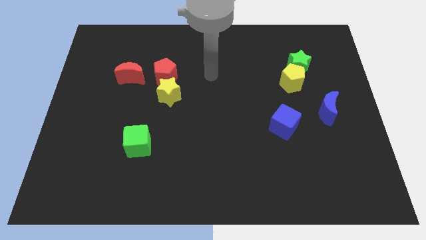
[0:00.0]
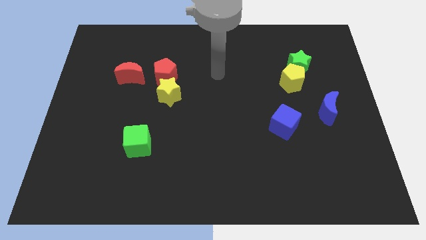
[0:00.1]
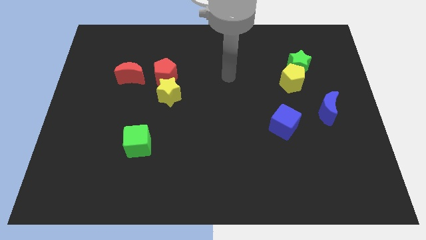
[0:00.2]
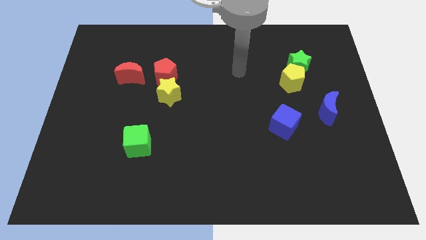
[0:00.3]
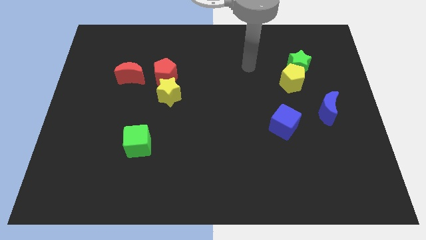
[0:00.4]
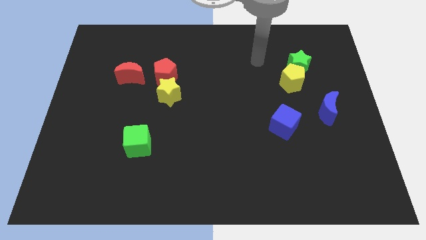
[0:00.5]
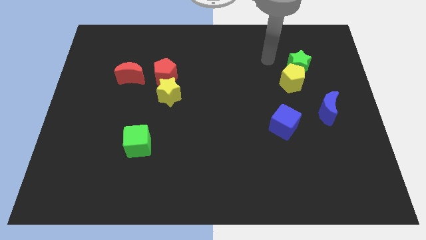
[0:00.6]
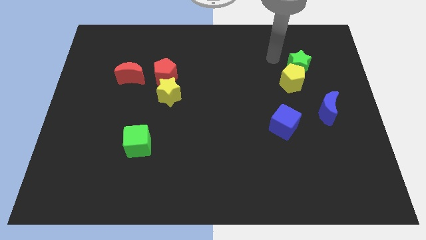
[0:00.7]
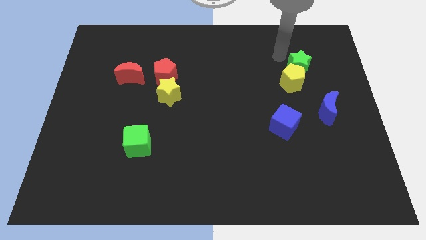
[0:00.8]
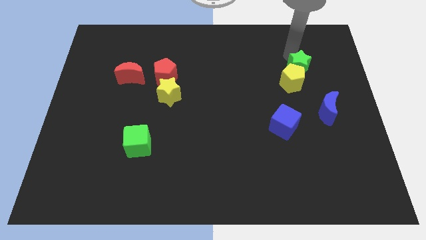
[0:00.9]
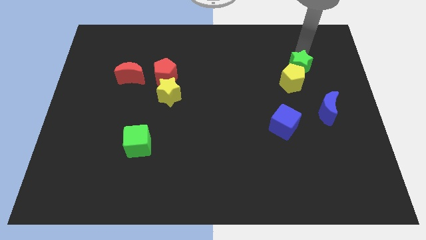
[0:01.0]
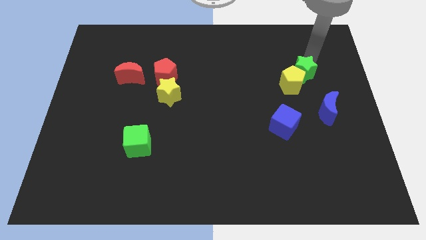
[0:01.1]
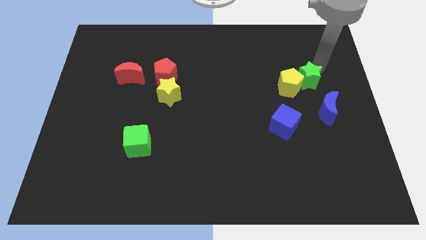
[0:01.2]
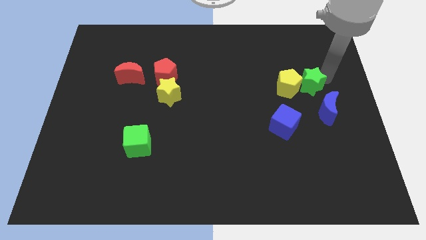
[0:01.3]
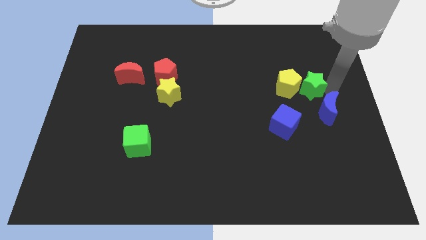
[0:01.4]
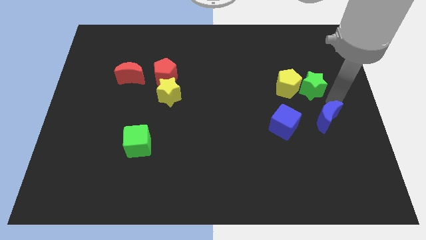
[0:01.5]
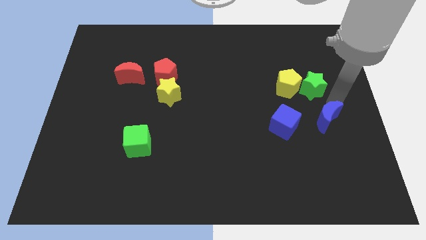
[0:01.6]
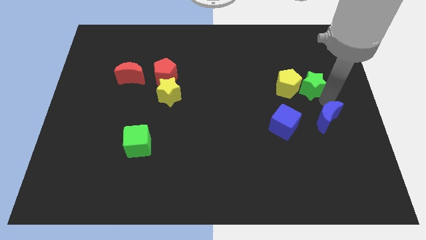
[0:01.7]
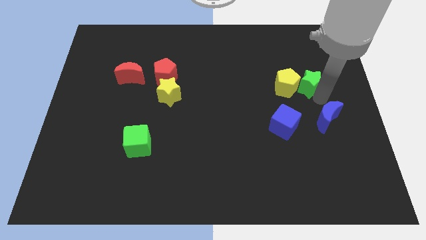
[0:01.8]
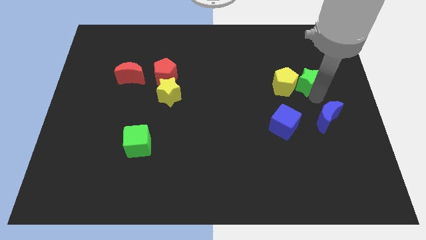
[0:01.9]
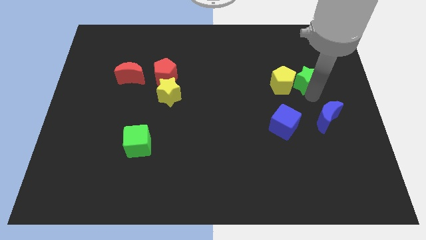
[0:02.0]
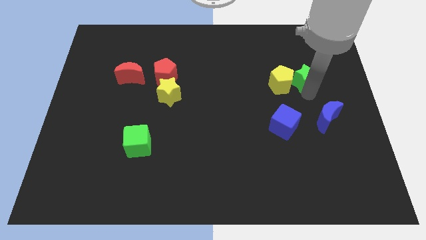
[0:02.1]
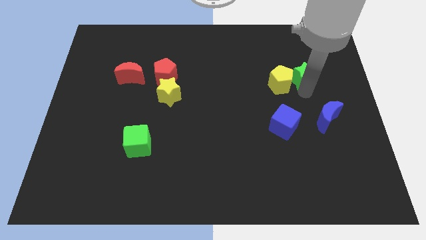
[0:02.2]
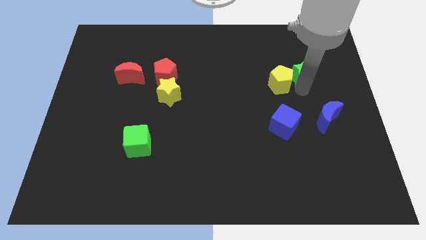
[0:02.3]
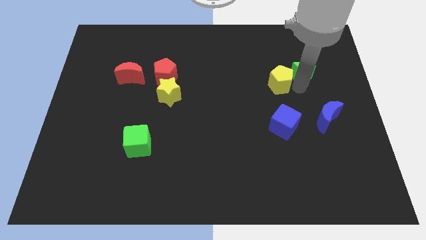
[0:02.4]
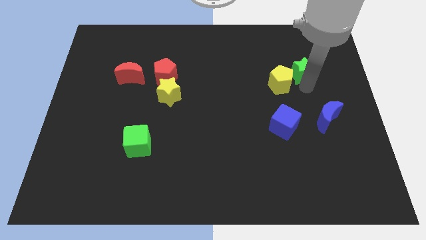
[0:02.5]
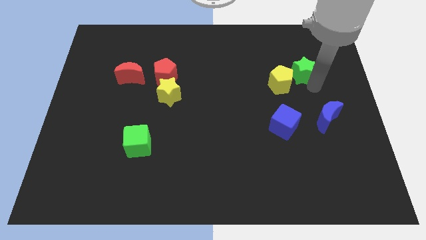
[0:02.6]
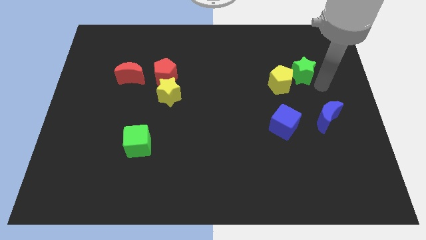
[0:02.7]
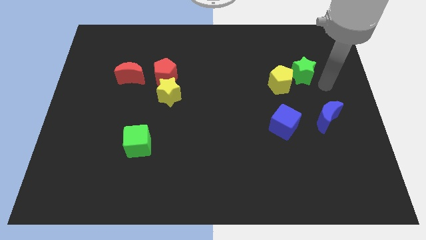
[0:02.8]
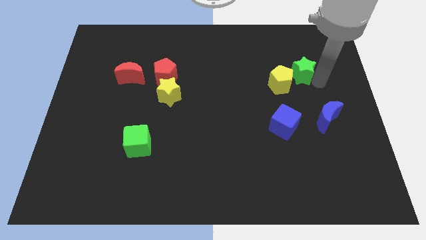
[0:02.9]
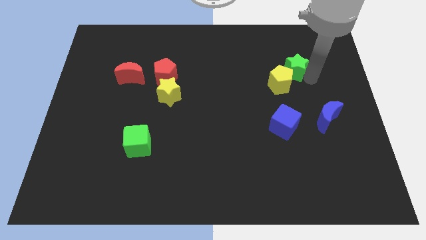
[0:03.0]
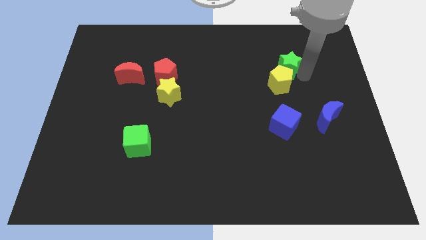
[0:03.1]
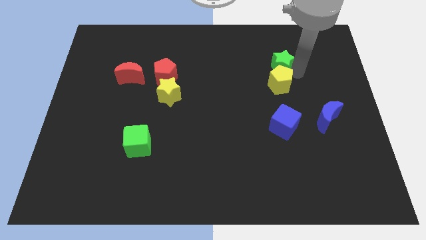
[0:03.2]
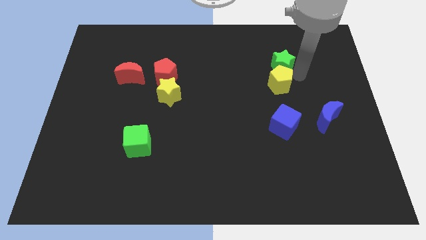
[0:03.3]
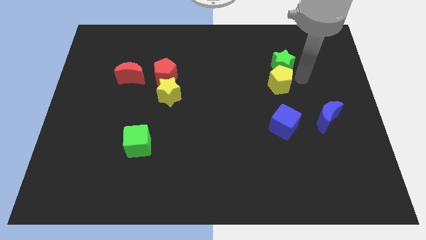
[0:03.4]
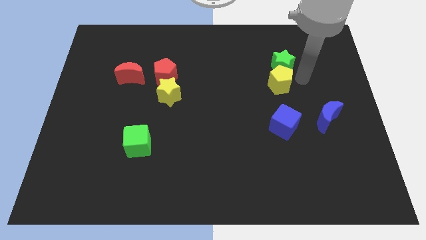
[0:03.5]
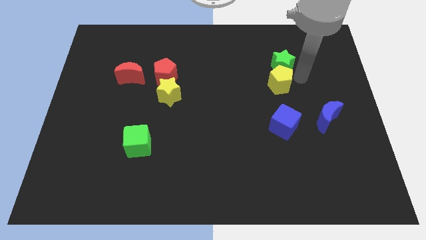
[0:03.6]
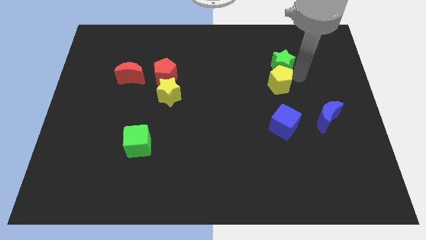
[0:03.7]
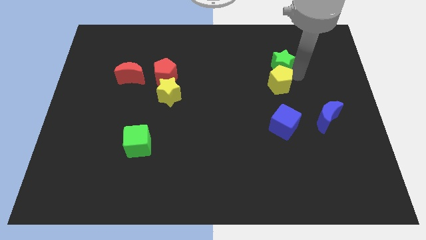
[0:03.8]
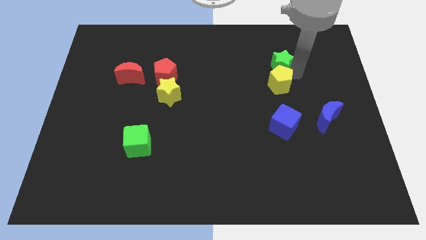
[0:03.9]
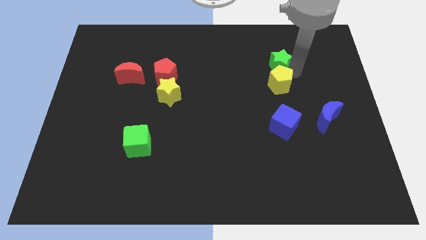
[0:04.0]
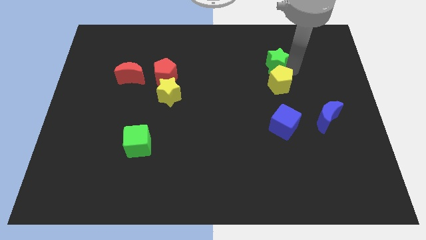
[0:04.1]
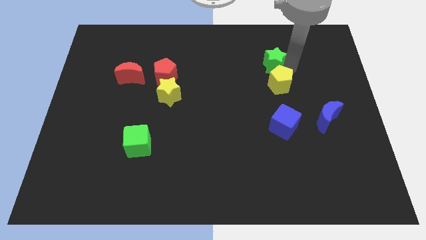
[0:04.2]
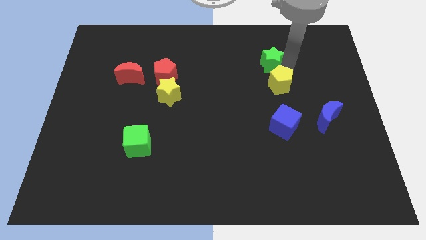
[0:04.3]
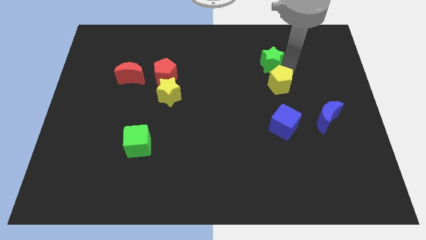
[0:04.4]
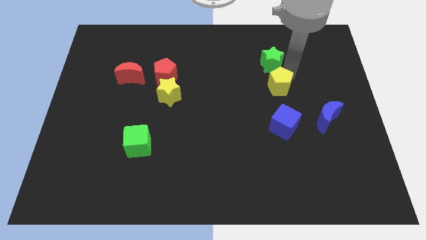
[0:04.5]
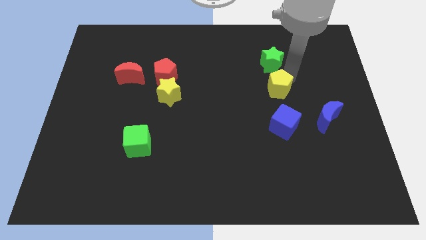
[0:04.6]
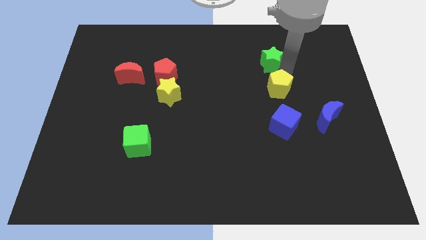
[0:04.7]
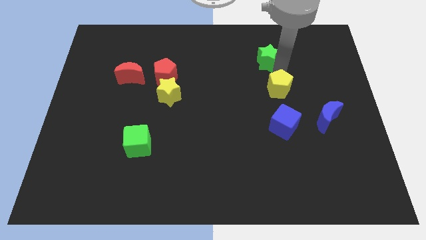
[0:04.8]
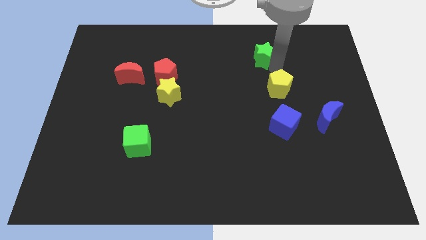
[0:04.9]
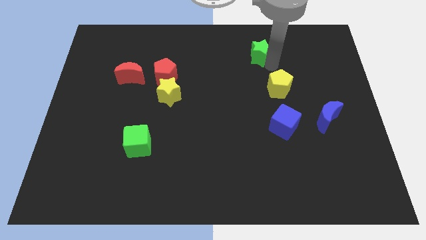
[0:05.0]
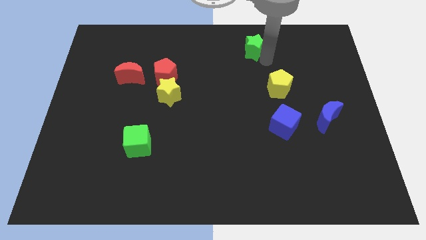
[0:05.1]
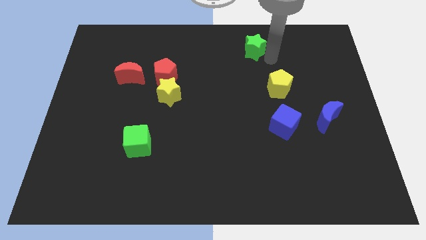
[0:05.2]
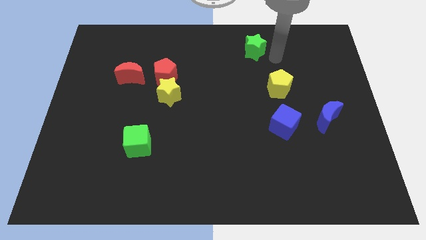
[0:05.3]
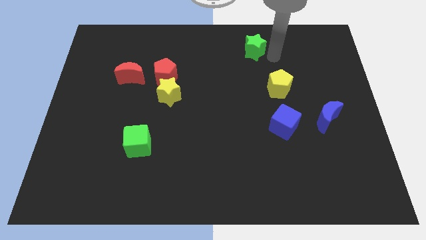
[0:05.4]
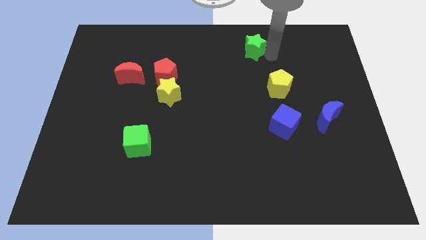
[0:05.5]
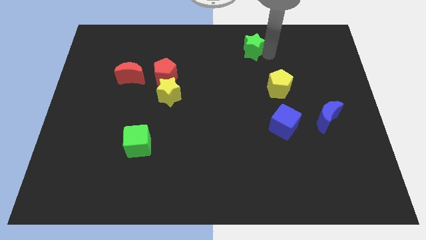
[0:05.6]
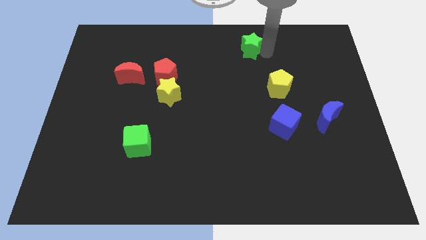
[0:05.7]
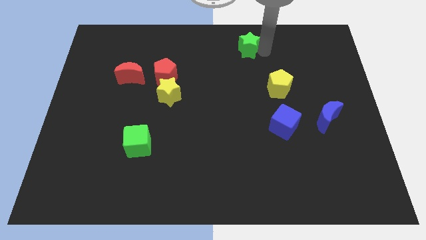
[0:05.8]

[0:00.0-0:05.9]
slide the green star to the towards your base

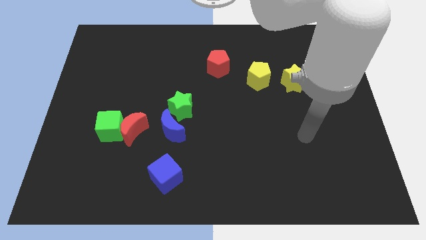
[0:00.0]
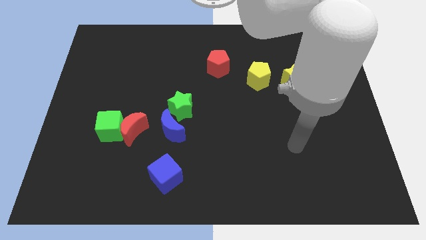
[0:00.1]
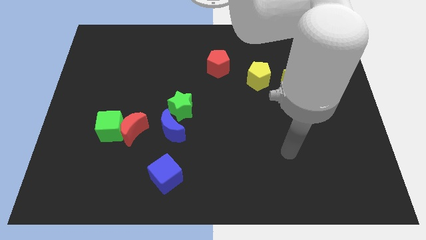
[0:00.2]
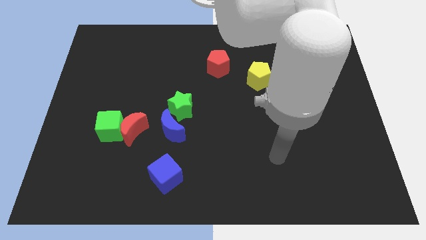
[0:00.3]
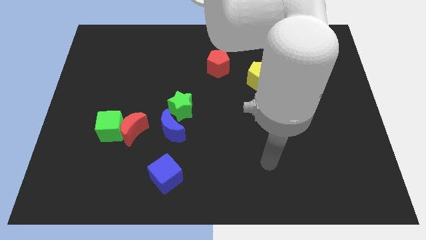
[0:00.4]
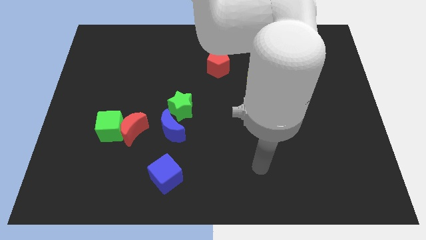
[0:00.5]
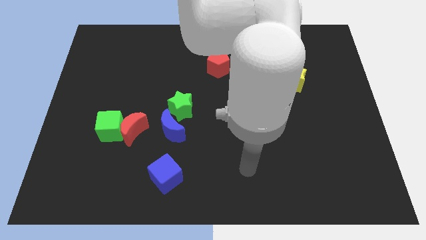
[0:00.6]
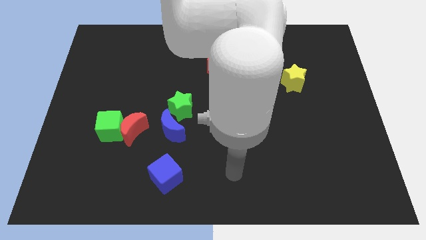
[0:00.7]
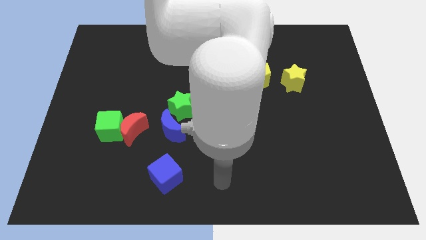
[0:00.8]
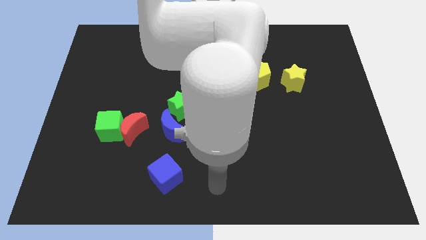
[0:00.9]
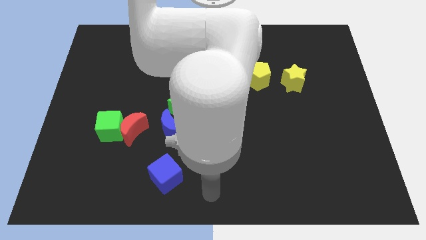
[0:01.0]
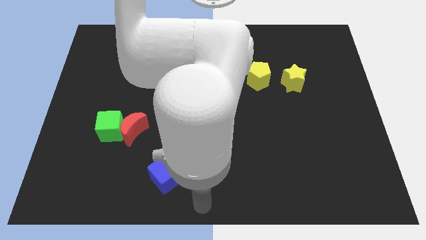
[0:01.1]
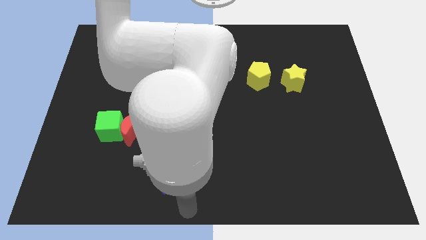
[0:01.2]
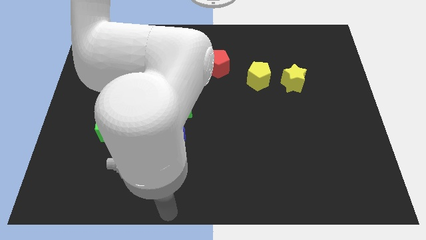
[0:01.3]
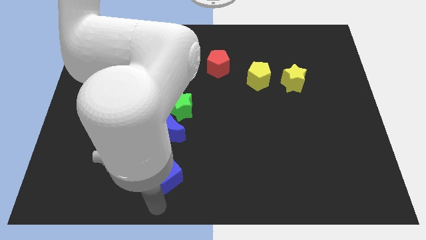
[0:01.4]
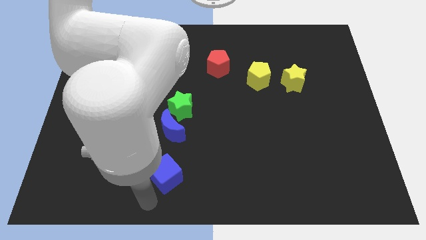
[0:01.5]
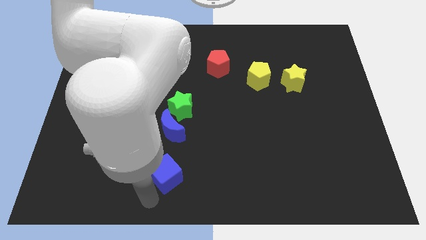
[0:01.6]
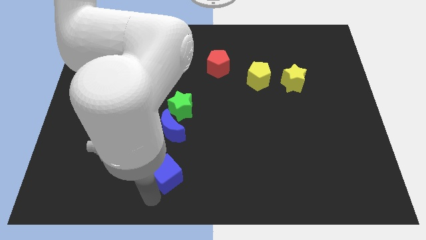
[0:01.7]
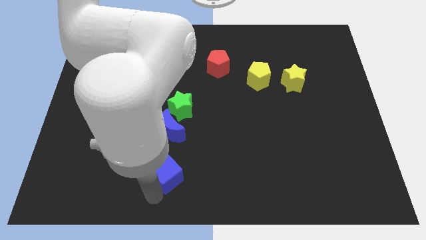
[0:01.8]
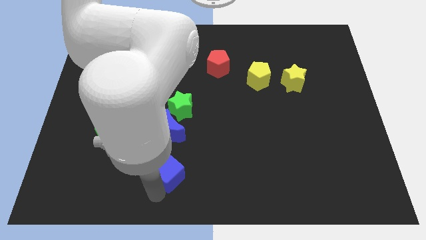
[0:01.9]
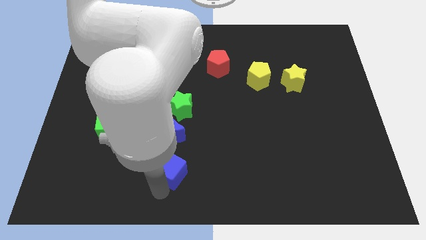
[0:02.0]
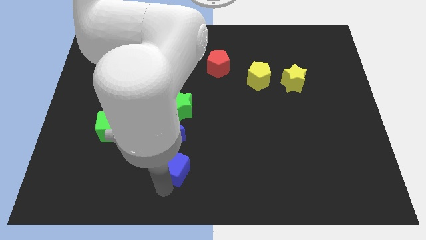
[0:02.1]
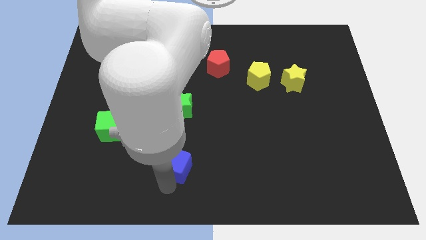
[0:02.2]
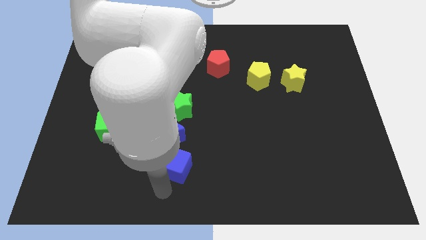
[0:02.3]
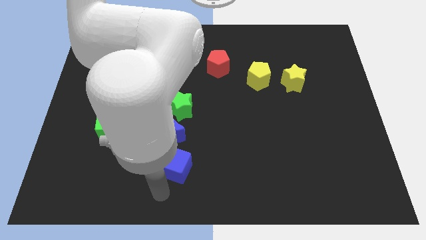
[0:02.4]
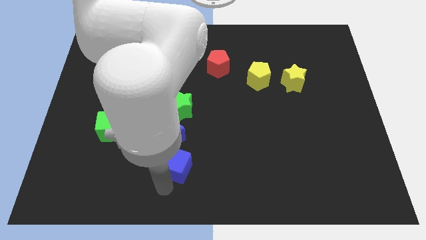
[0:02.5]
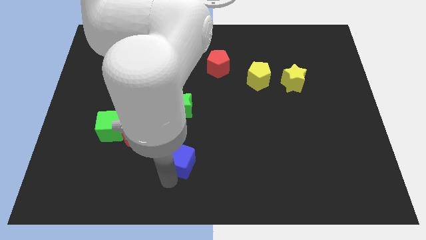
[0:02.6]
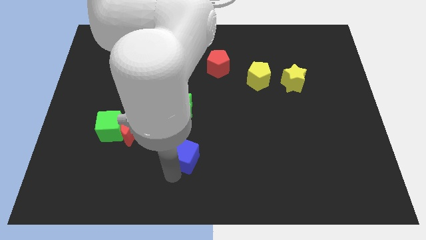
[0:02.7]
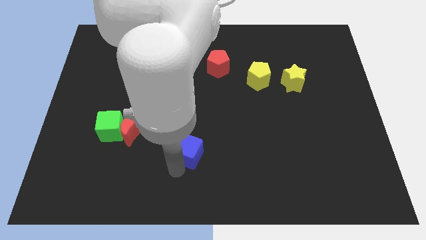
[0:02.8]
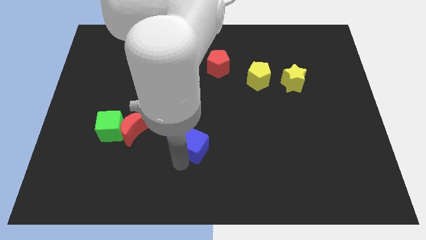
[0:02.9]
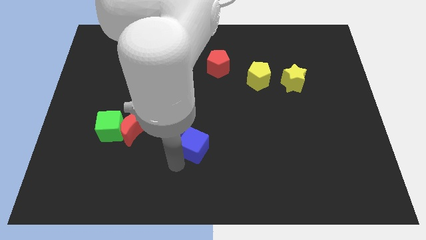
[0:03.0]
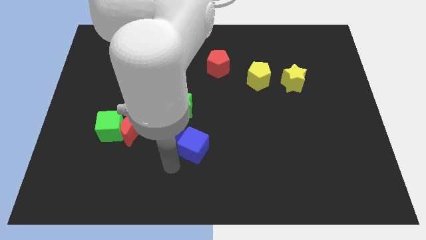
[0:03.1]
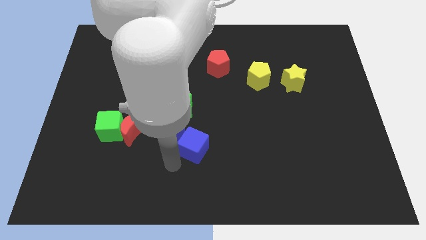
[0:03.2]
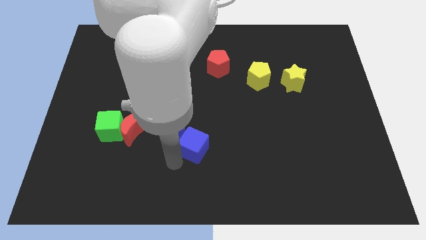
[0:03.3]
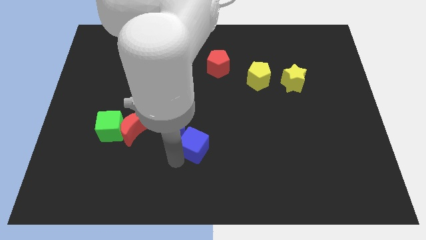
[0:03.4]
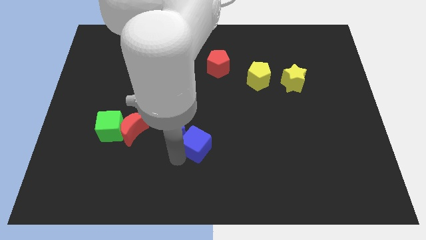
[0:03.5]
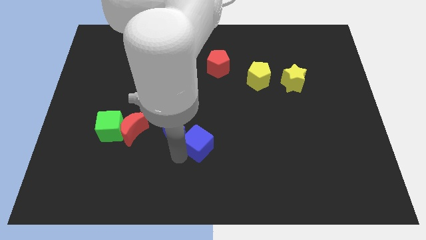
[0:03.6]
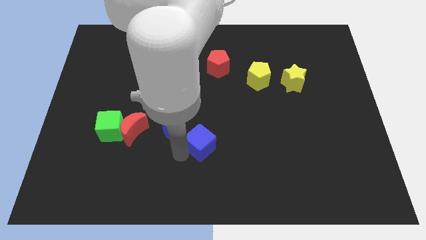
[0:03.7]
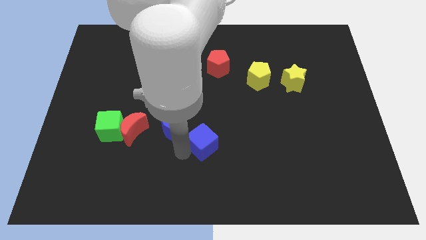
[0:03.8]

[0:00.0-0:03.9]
push the blue cube to the middle of the board
